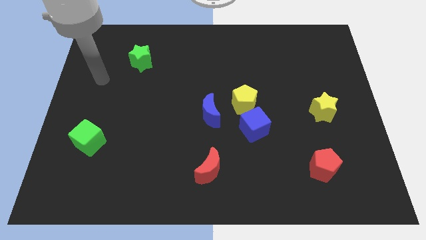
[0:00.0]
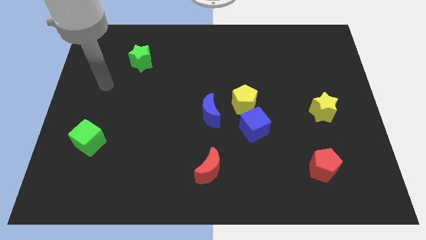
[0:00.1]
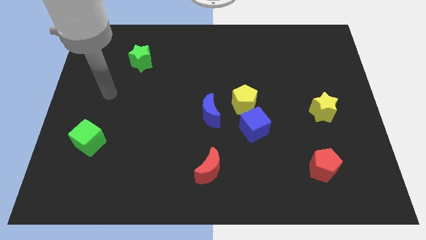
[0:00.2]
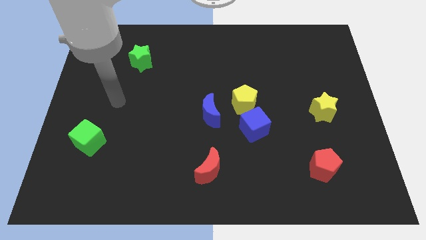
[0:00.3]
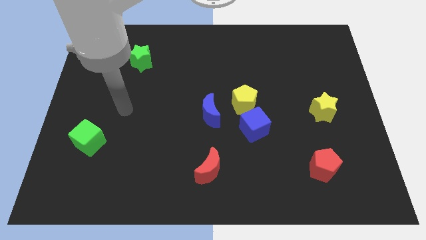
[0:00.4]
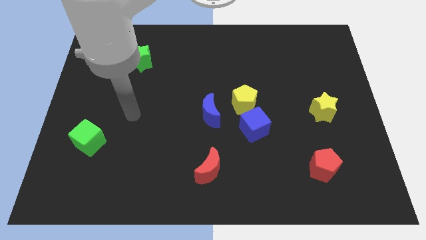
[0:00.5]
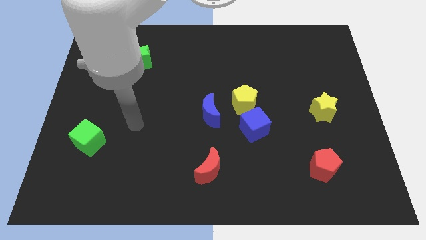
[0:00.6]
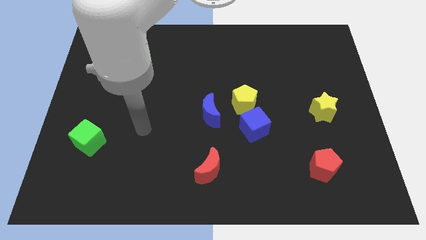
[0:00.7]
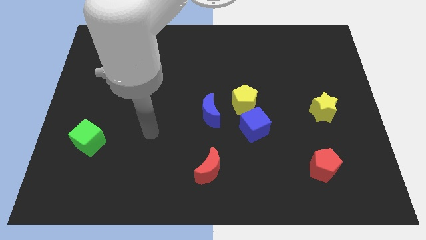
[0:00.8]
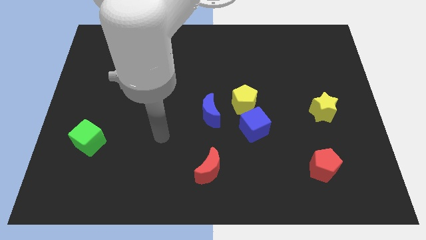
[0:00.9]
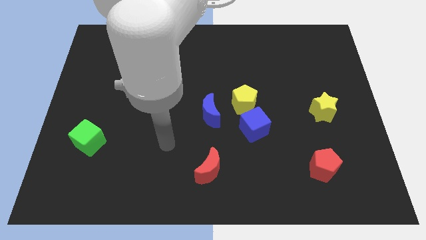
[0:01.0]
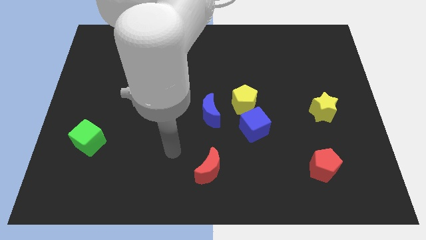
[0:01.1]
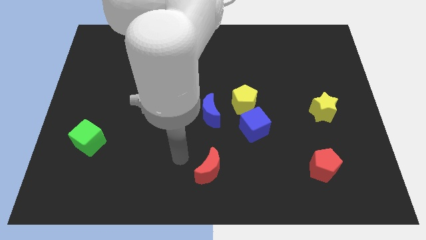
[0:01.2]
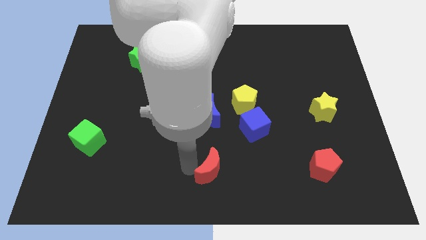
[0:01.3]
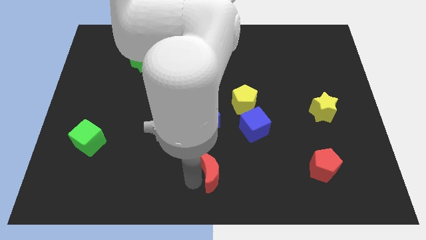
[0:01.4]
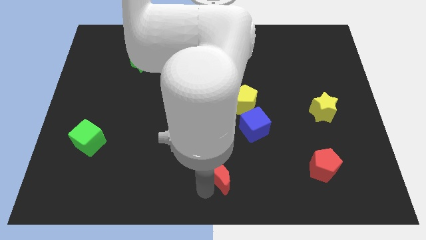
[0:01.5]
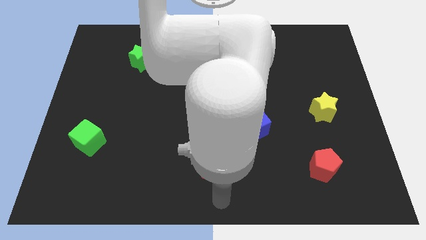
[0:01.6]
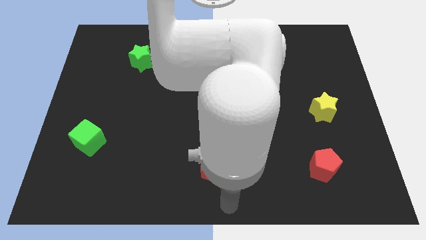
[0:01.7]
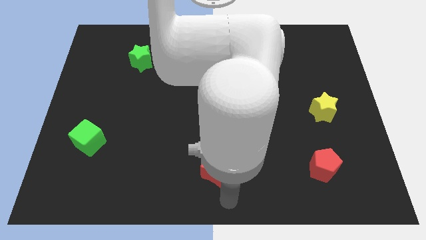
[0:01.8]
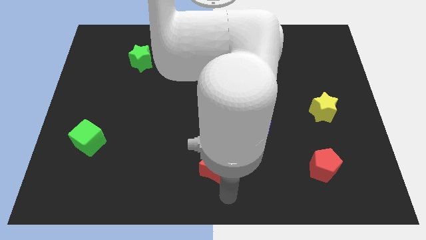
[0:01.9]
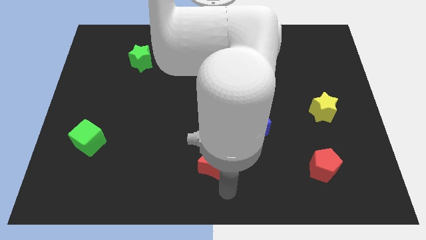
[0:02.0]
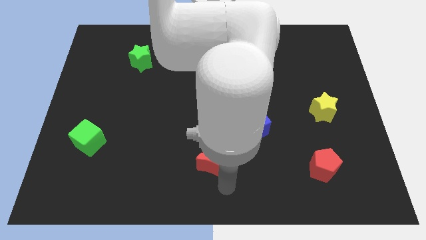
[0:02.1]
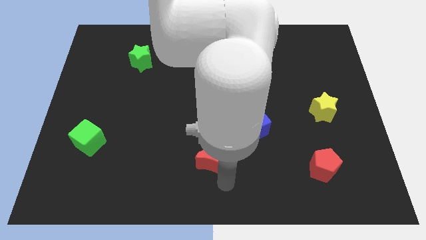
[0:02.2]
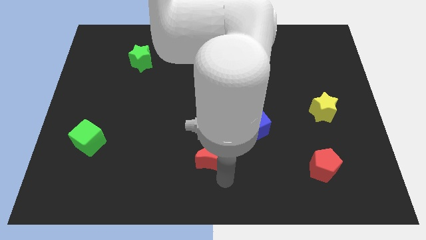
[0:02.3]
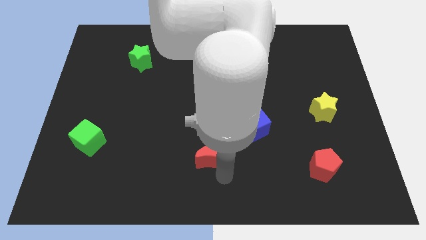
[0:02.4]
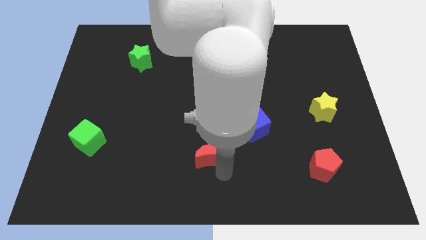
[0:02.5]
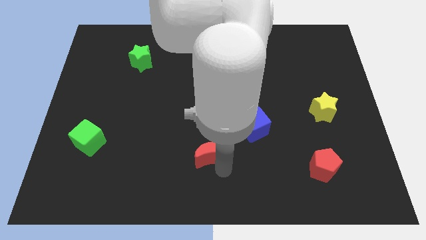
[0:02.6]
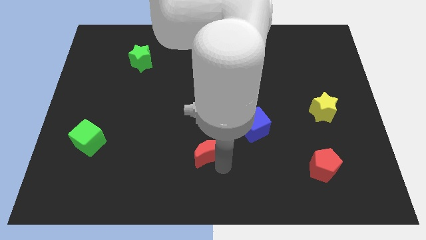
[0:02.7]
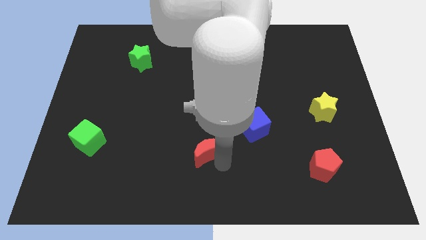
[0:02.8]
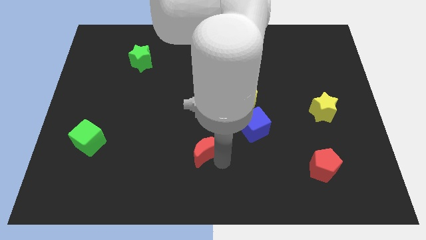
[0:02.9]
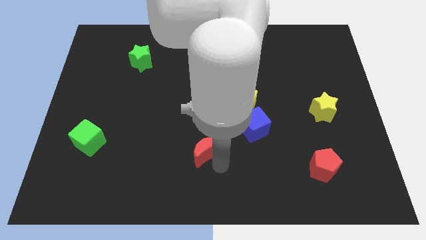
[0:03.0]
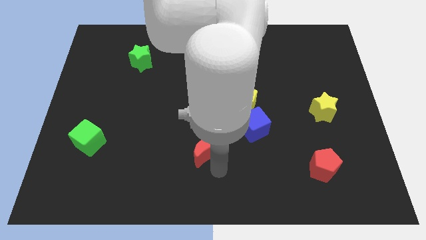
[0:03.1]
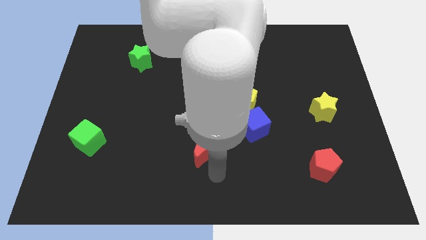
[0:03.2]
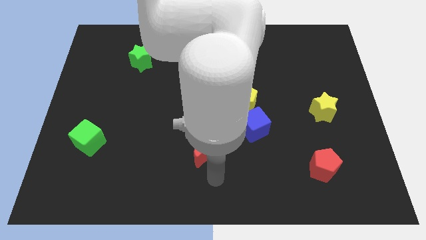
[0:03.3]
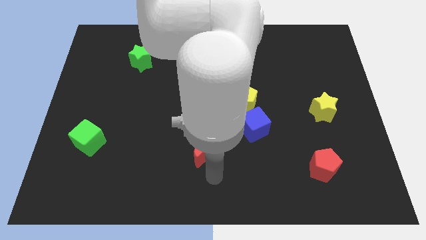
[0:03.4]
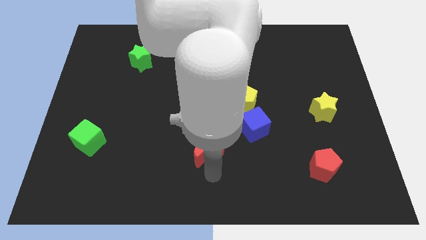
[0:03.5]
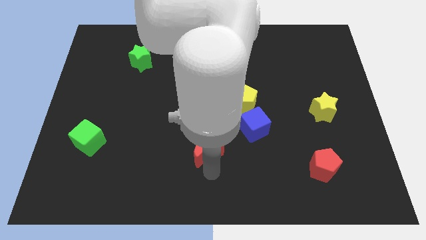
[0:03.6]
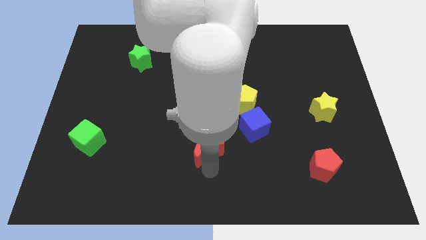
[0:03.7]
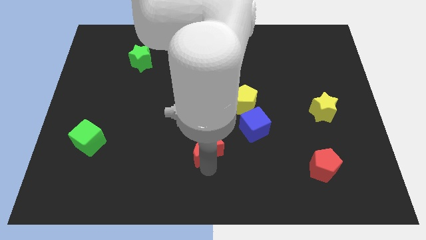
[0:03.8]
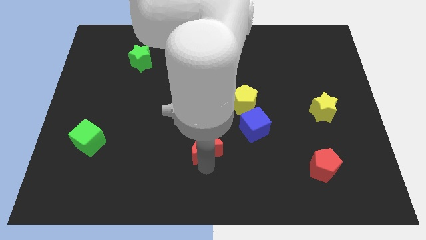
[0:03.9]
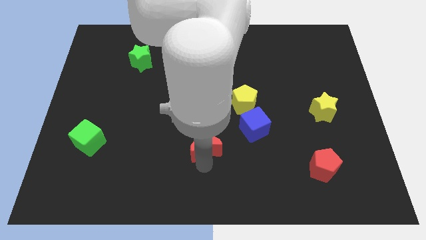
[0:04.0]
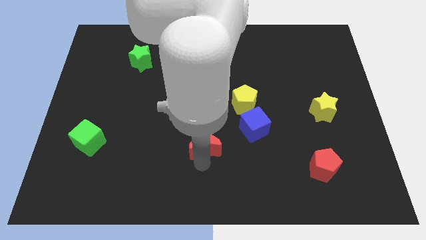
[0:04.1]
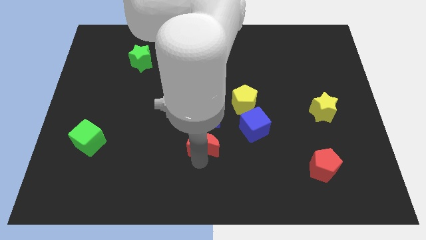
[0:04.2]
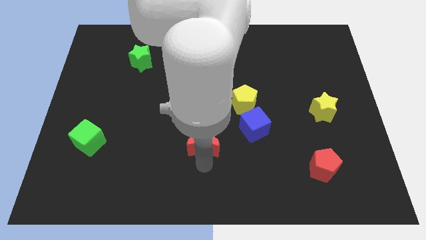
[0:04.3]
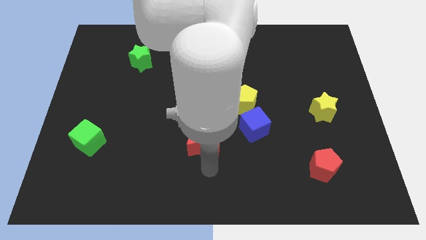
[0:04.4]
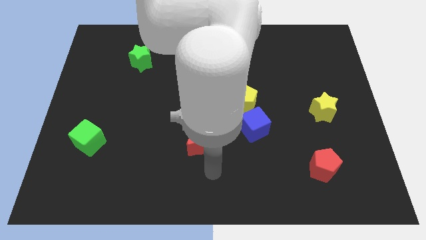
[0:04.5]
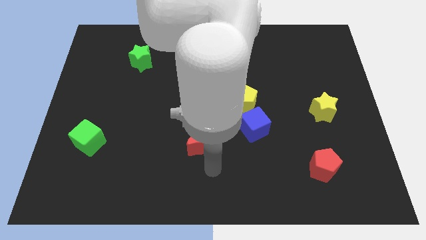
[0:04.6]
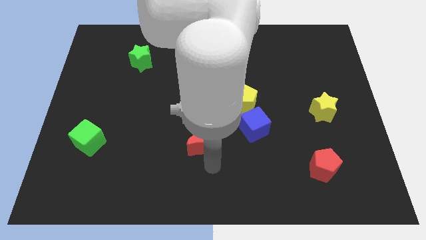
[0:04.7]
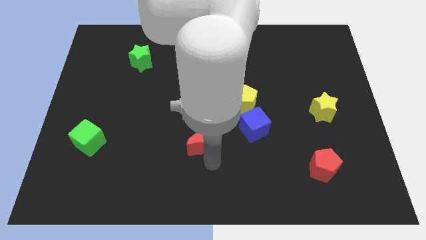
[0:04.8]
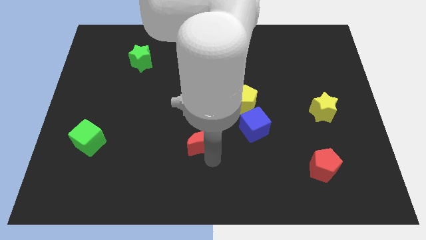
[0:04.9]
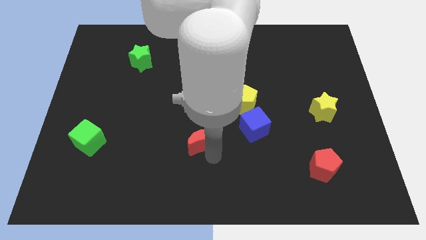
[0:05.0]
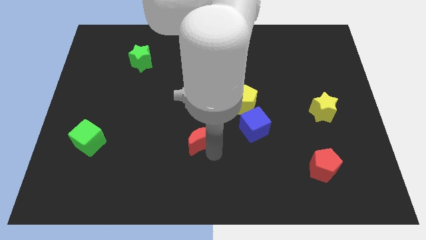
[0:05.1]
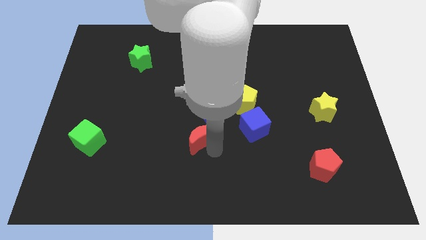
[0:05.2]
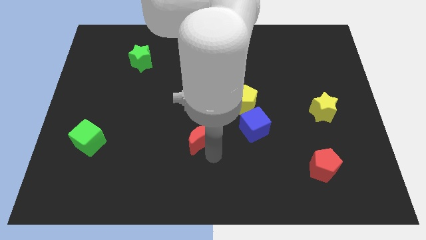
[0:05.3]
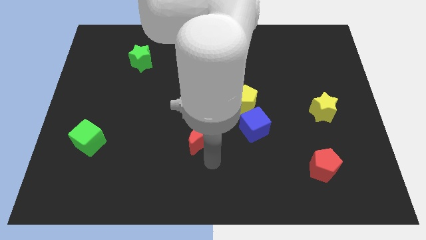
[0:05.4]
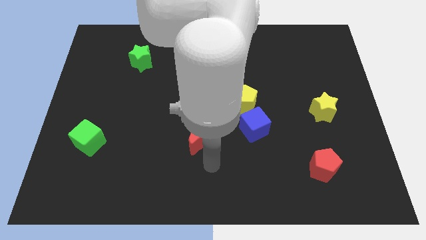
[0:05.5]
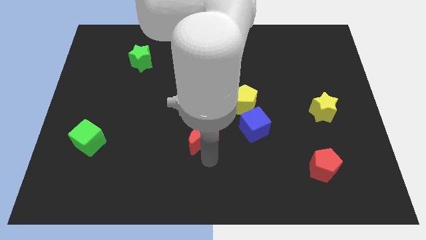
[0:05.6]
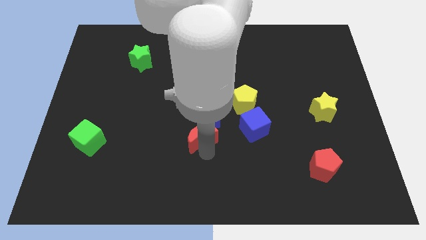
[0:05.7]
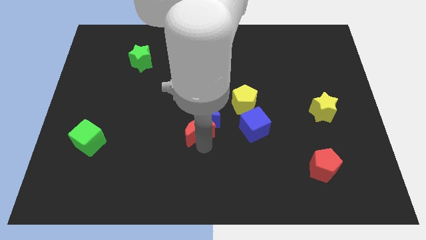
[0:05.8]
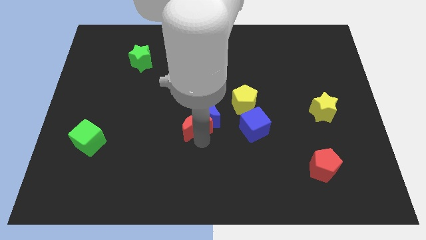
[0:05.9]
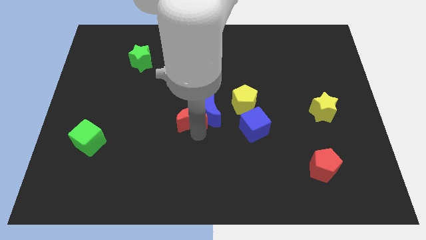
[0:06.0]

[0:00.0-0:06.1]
slide the red moon to the top left side of the blue moon

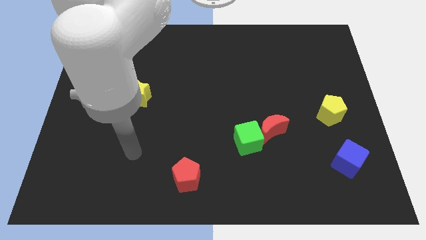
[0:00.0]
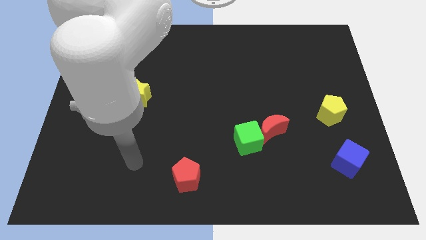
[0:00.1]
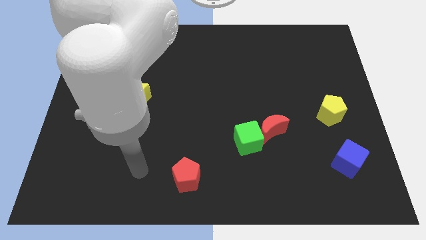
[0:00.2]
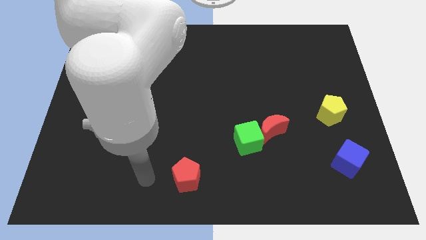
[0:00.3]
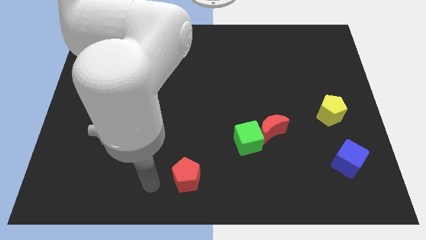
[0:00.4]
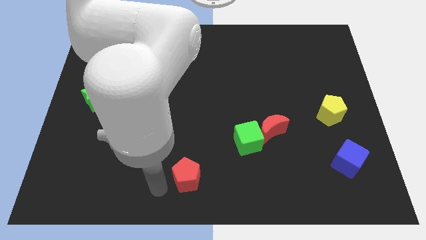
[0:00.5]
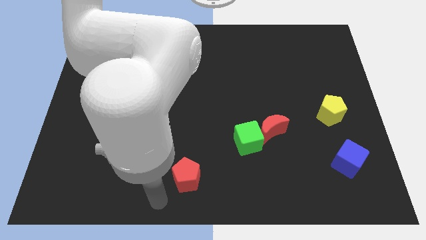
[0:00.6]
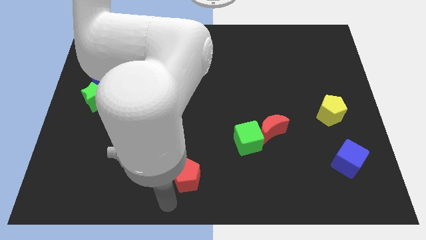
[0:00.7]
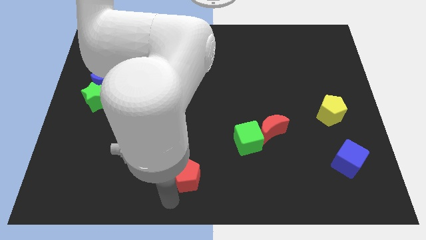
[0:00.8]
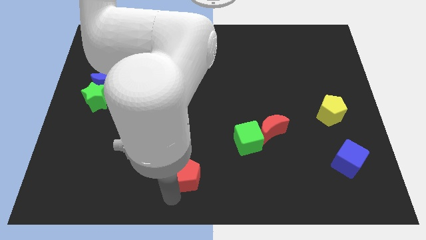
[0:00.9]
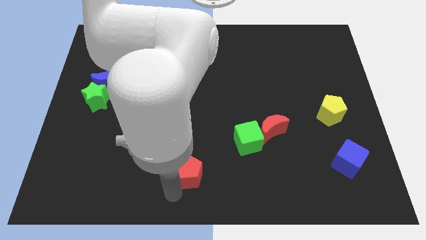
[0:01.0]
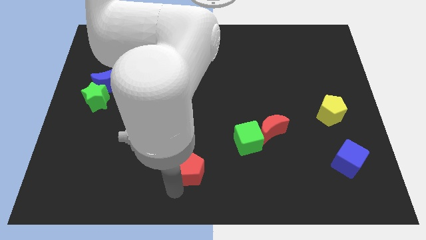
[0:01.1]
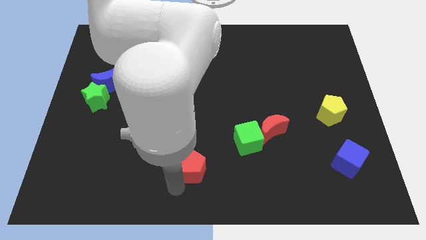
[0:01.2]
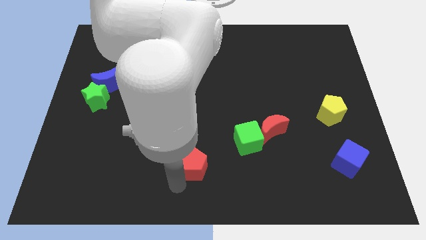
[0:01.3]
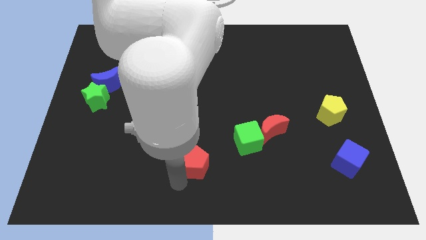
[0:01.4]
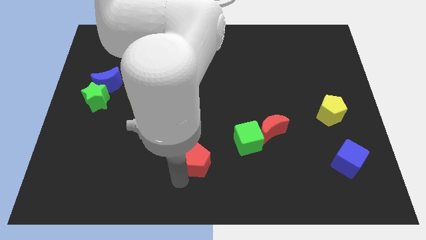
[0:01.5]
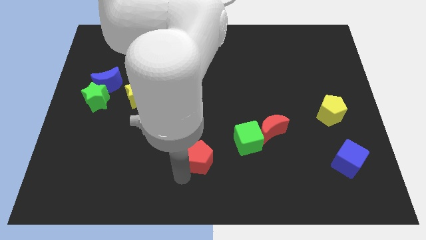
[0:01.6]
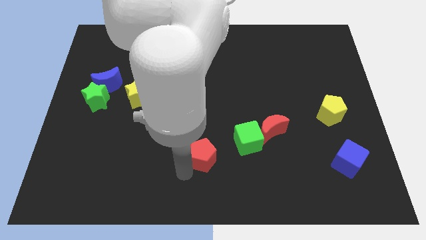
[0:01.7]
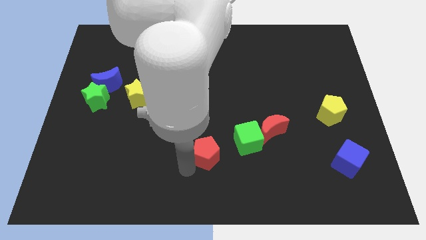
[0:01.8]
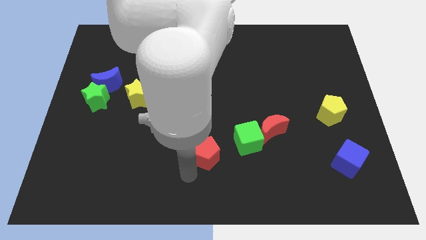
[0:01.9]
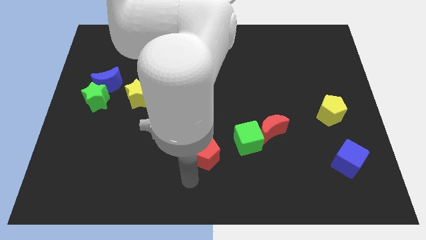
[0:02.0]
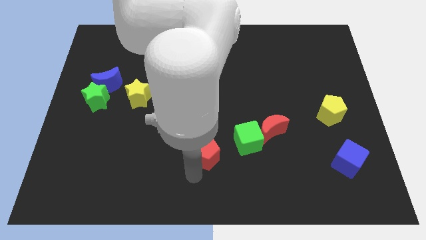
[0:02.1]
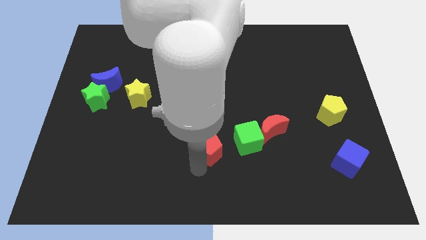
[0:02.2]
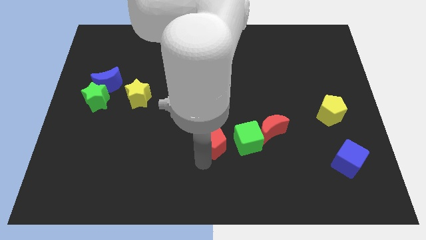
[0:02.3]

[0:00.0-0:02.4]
push the red pentagon to the left of the red moon
